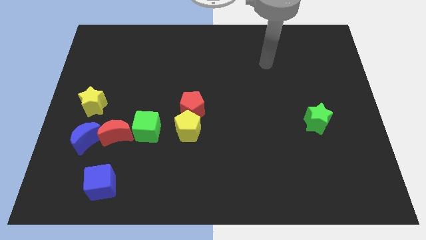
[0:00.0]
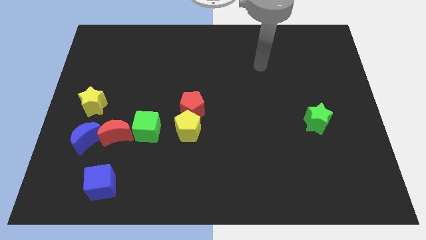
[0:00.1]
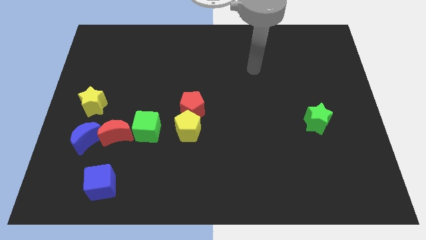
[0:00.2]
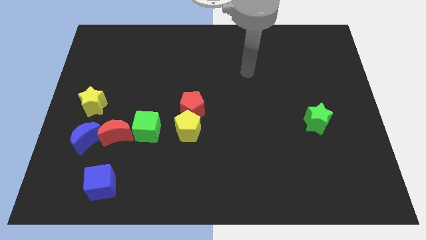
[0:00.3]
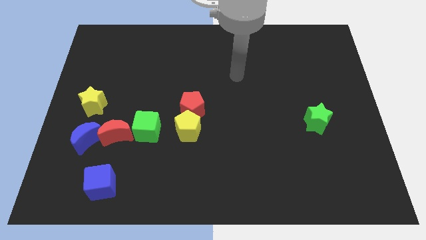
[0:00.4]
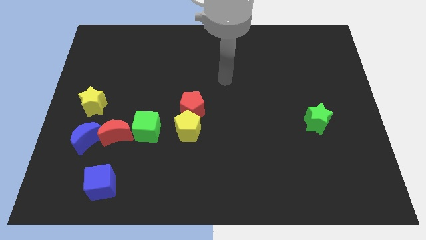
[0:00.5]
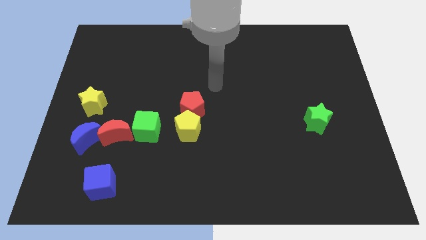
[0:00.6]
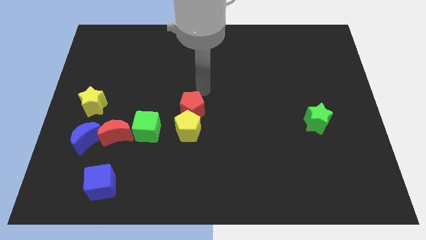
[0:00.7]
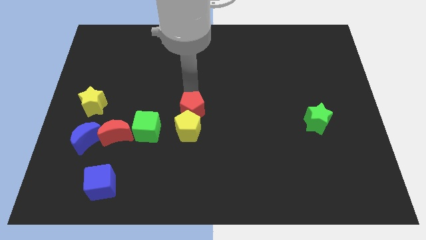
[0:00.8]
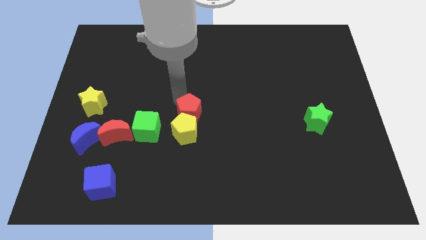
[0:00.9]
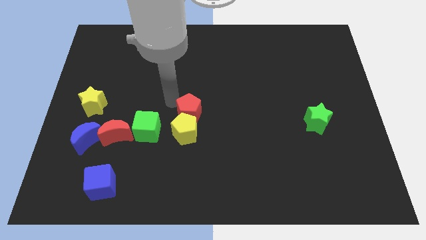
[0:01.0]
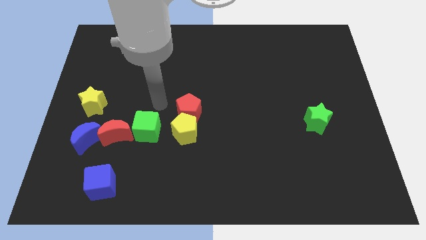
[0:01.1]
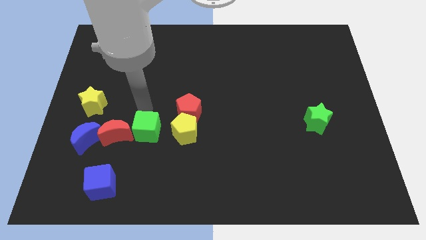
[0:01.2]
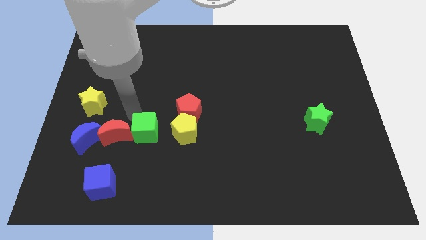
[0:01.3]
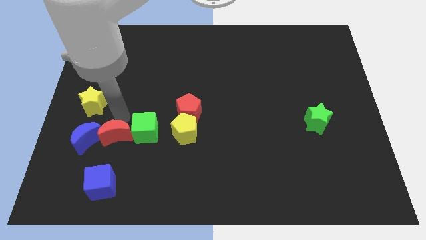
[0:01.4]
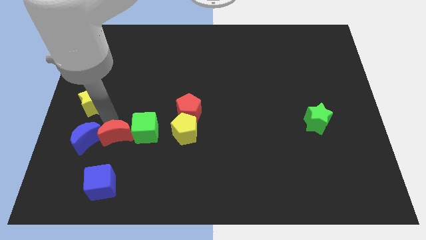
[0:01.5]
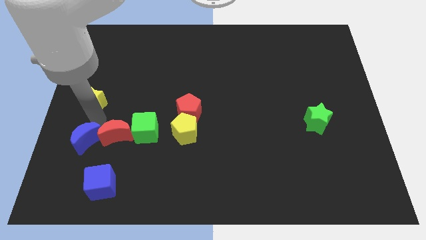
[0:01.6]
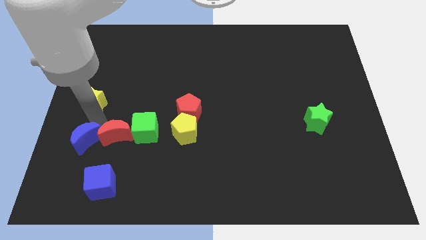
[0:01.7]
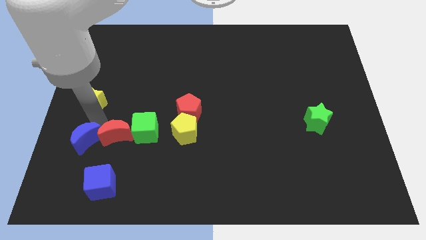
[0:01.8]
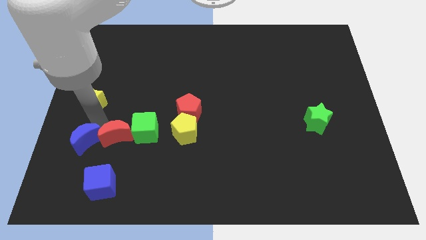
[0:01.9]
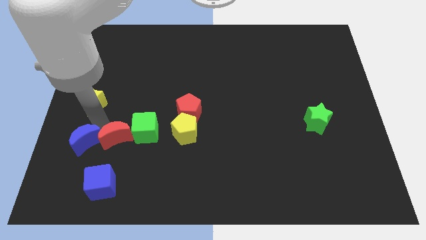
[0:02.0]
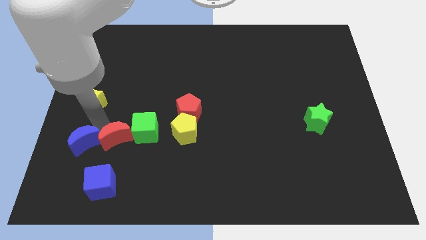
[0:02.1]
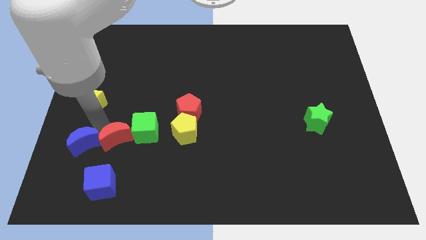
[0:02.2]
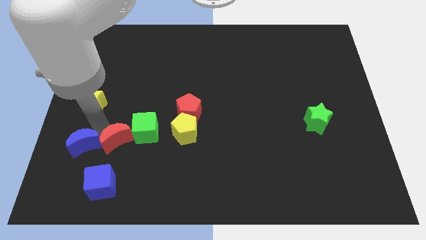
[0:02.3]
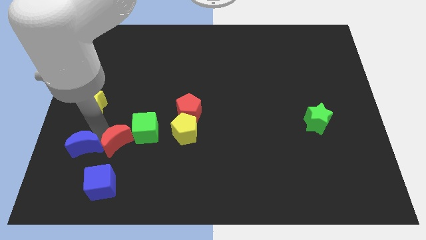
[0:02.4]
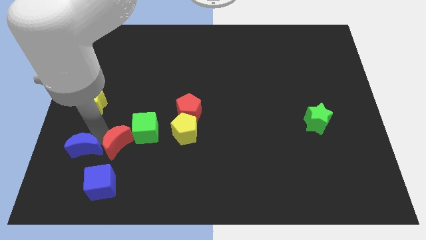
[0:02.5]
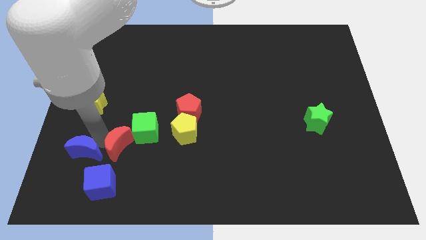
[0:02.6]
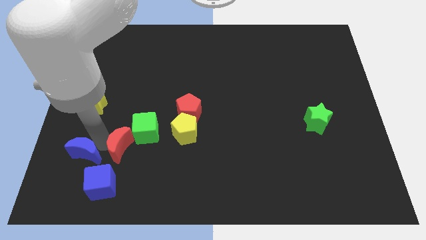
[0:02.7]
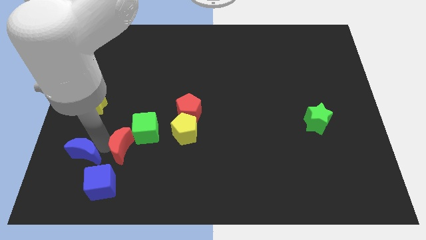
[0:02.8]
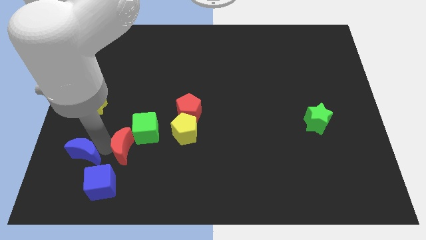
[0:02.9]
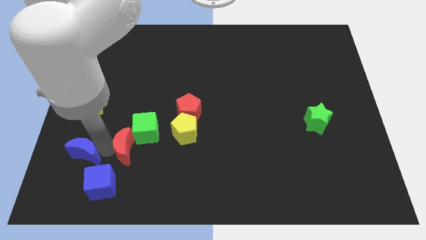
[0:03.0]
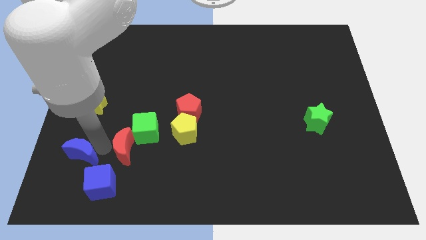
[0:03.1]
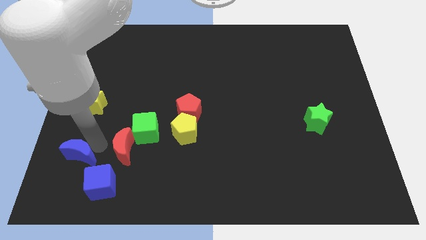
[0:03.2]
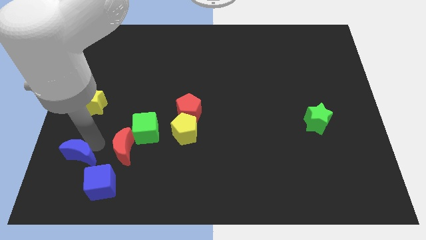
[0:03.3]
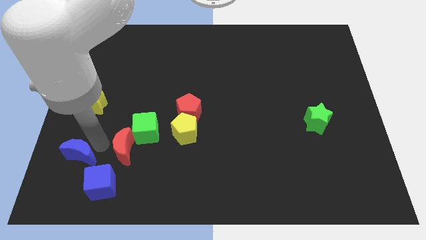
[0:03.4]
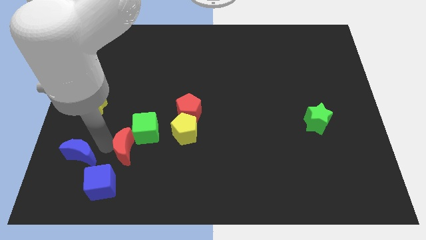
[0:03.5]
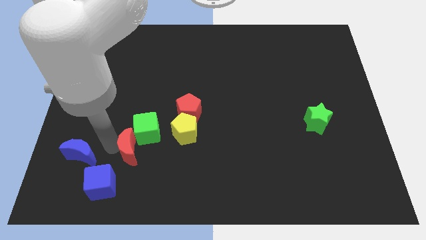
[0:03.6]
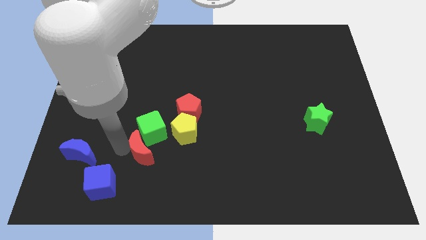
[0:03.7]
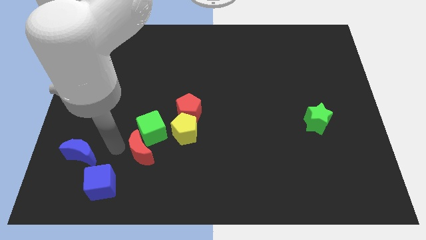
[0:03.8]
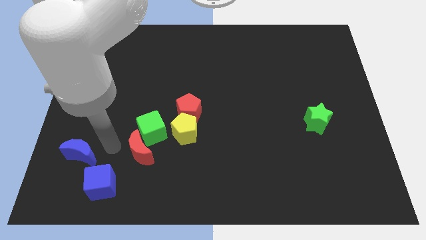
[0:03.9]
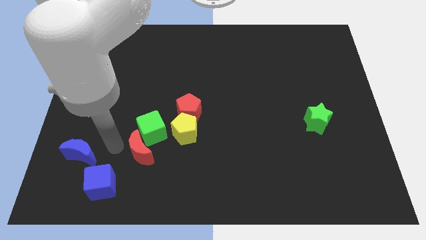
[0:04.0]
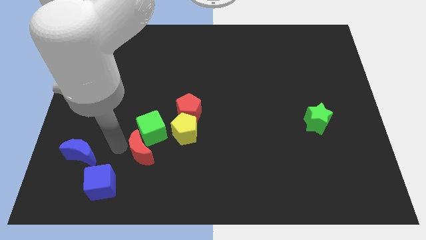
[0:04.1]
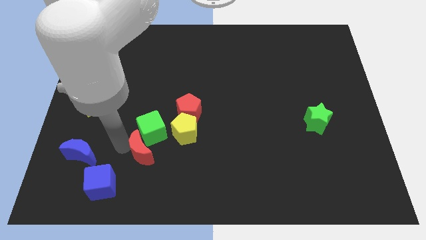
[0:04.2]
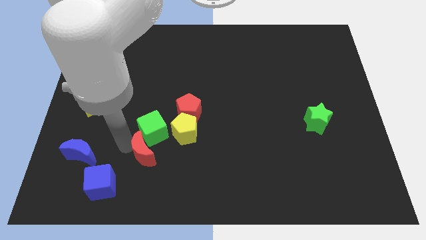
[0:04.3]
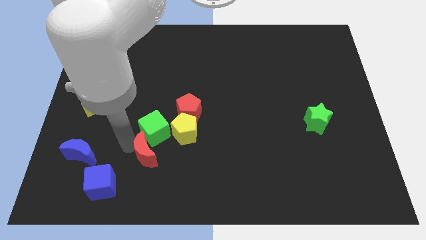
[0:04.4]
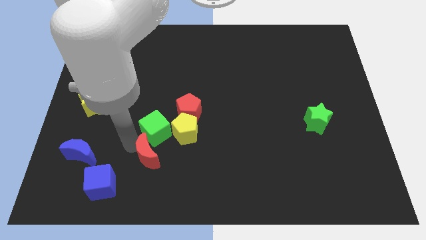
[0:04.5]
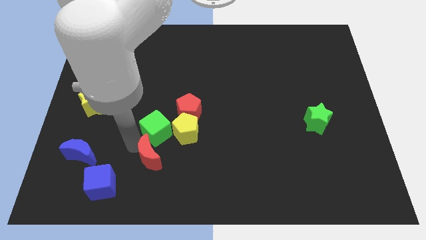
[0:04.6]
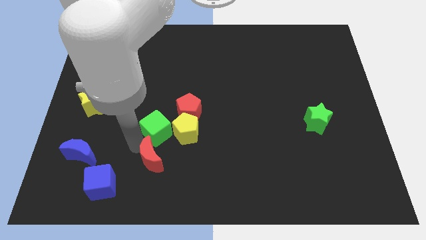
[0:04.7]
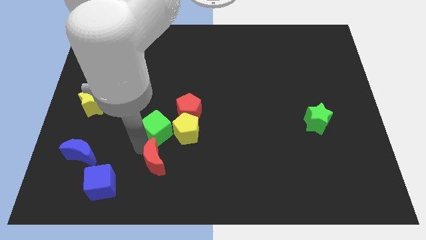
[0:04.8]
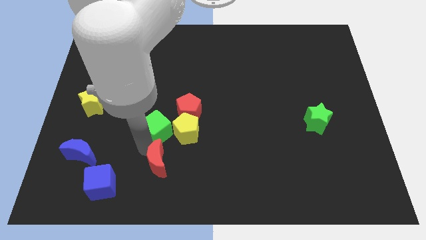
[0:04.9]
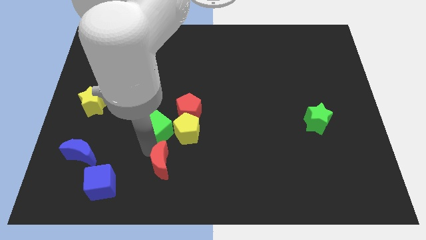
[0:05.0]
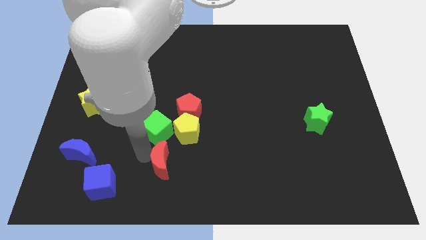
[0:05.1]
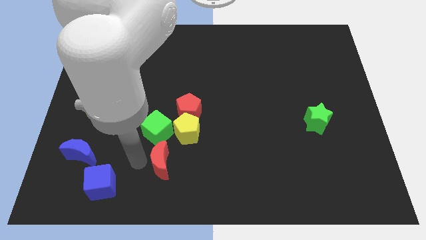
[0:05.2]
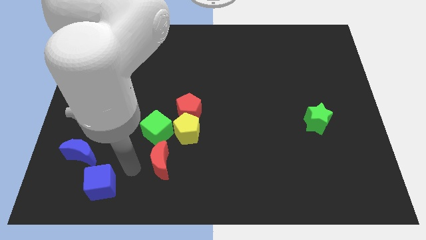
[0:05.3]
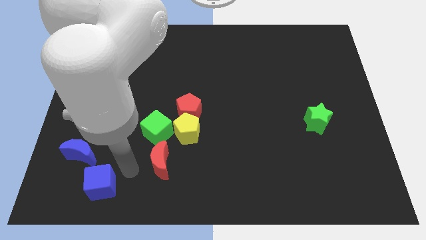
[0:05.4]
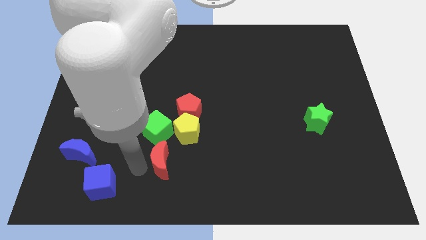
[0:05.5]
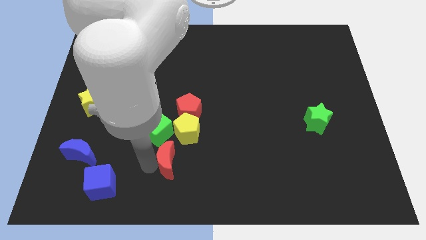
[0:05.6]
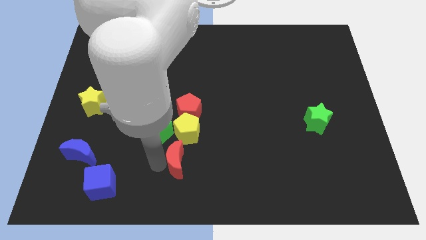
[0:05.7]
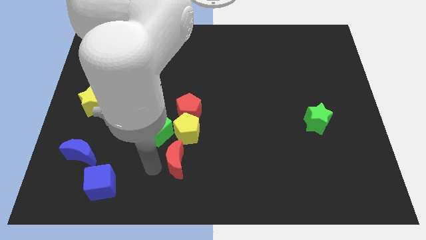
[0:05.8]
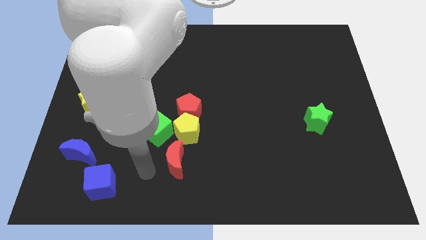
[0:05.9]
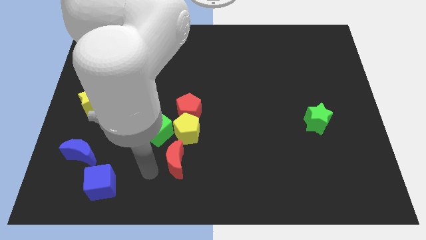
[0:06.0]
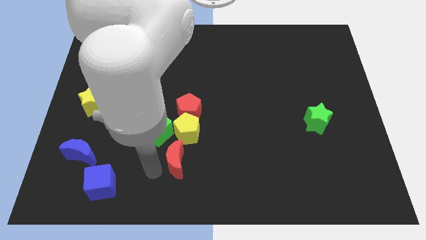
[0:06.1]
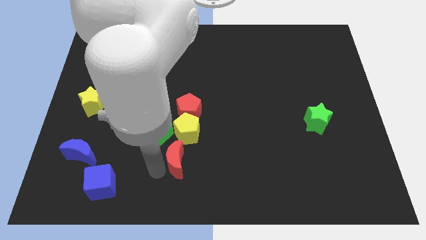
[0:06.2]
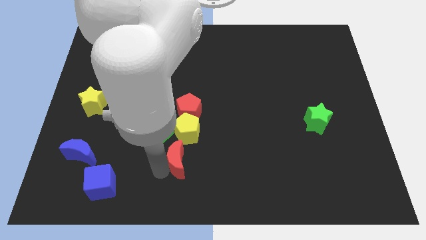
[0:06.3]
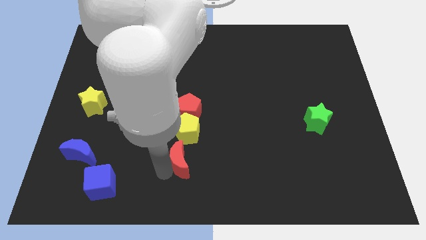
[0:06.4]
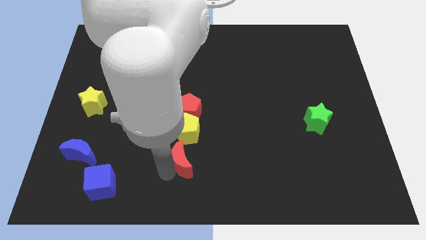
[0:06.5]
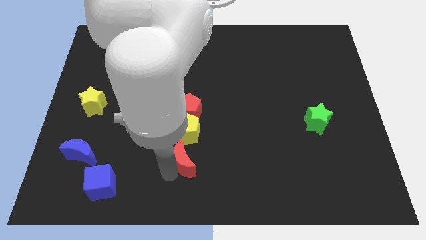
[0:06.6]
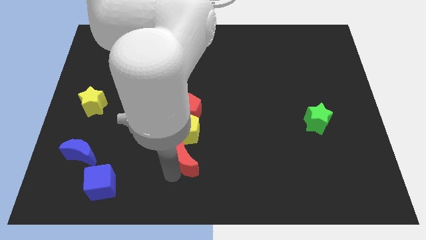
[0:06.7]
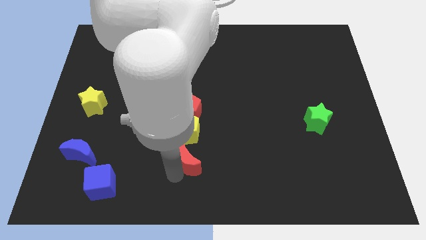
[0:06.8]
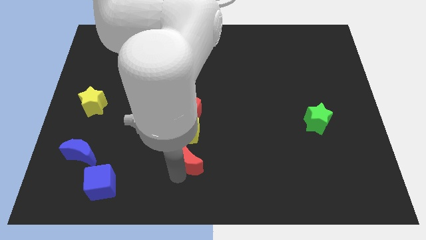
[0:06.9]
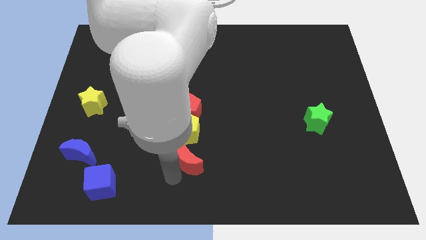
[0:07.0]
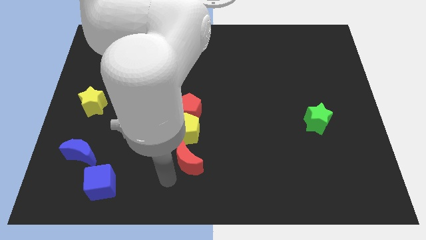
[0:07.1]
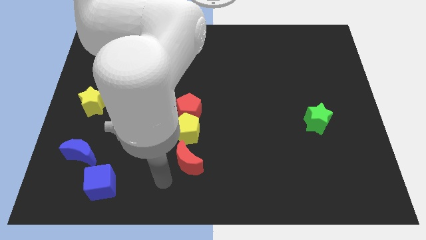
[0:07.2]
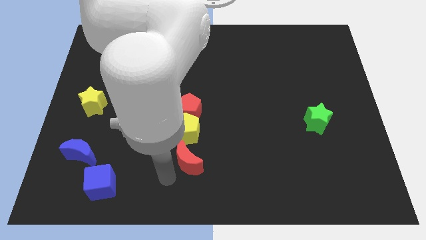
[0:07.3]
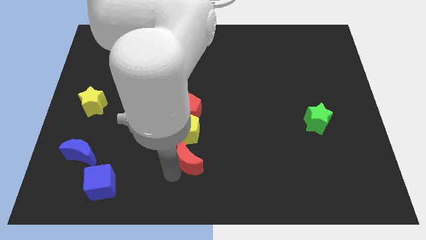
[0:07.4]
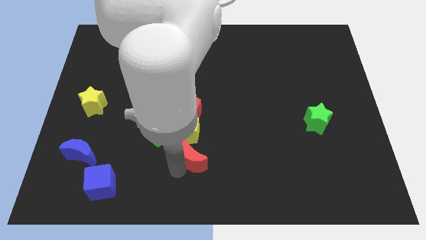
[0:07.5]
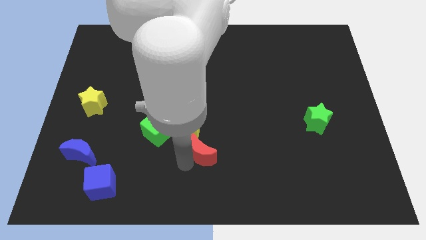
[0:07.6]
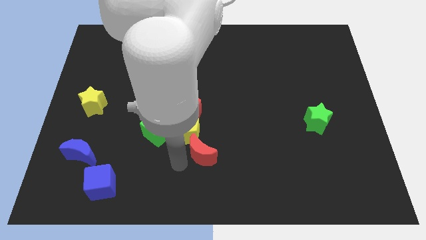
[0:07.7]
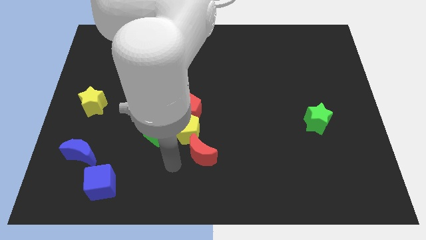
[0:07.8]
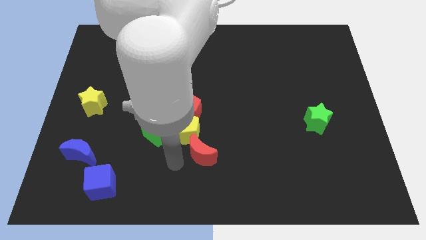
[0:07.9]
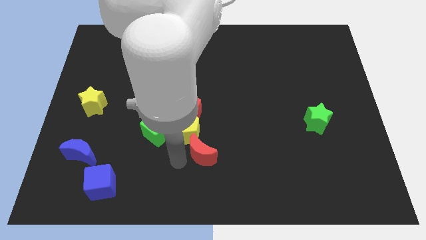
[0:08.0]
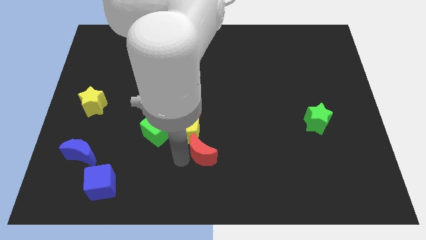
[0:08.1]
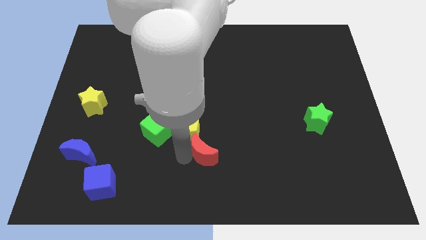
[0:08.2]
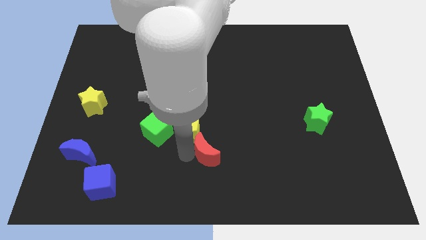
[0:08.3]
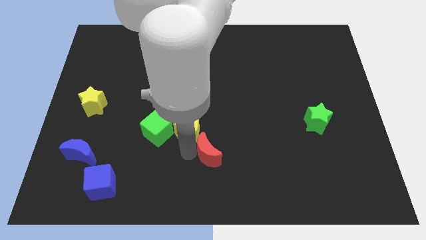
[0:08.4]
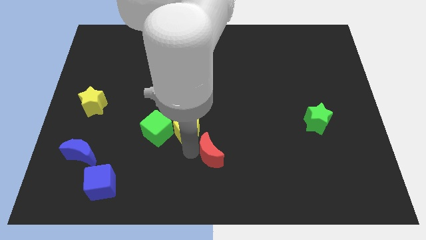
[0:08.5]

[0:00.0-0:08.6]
move the red moon right
